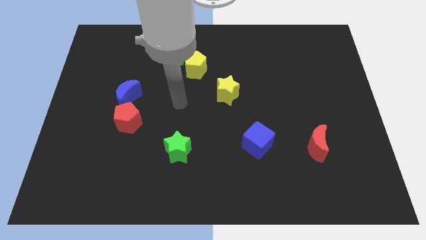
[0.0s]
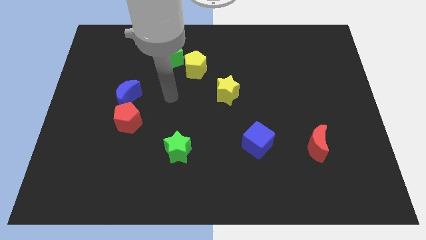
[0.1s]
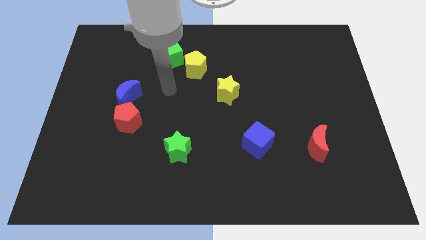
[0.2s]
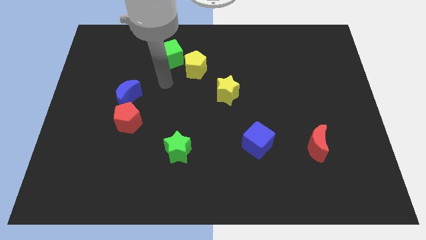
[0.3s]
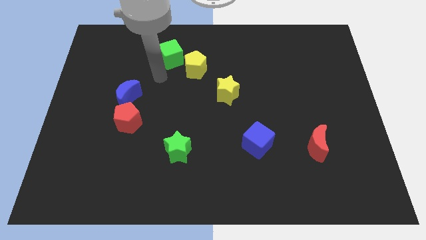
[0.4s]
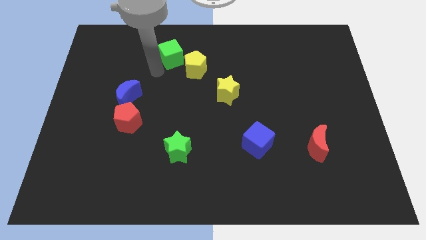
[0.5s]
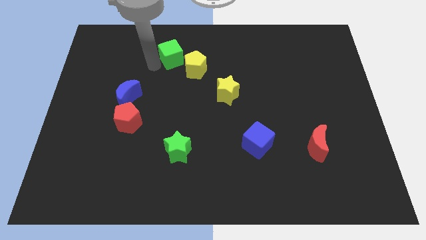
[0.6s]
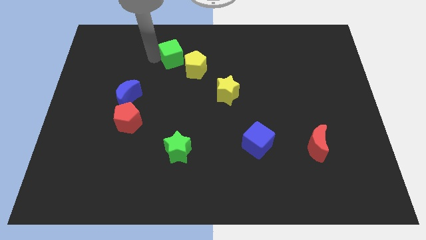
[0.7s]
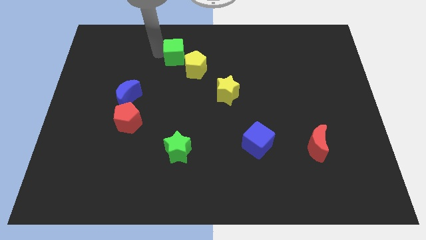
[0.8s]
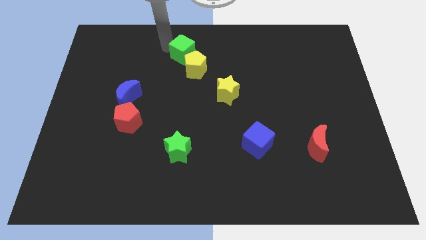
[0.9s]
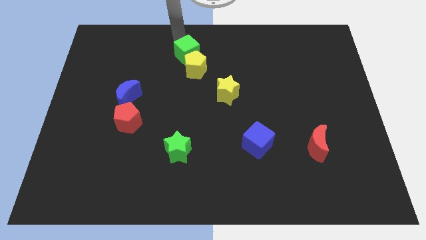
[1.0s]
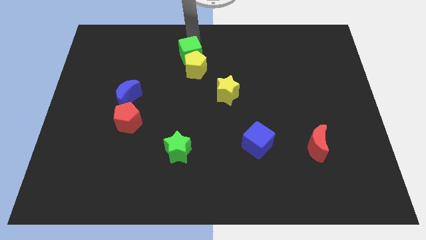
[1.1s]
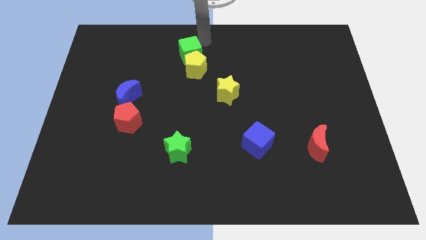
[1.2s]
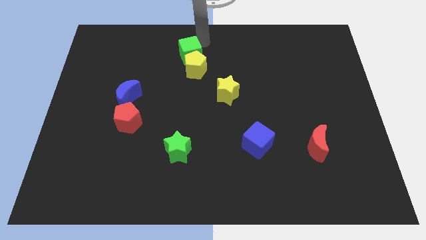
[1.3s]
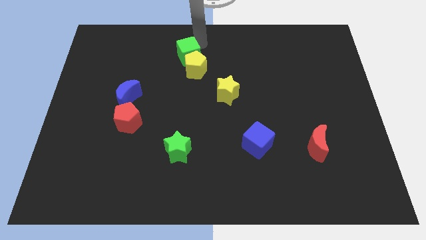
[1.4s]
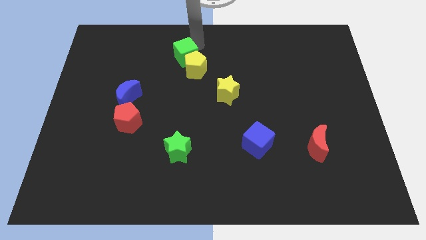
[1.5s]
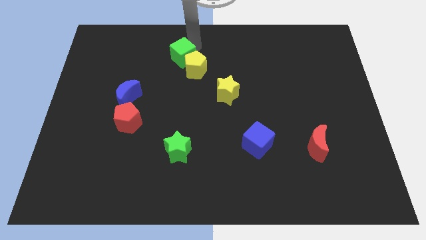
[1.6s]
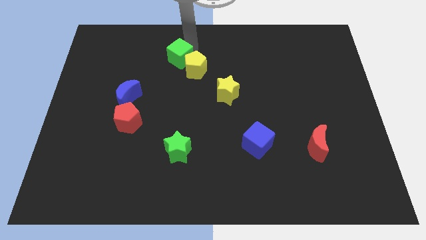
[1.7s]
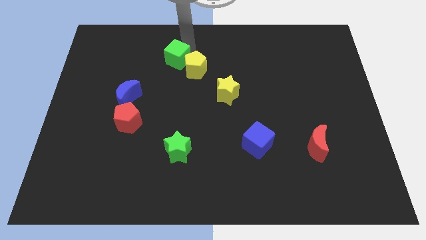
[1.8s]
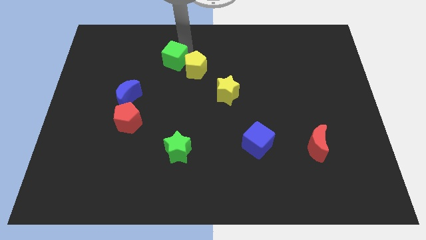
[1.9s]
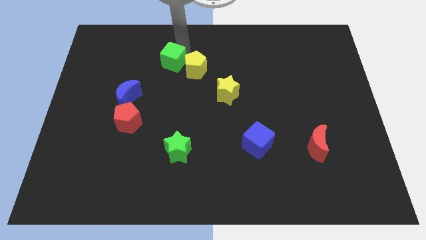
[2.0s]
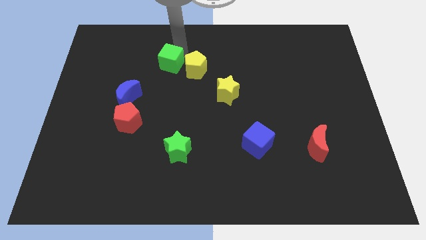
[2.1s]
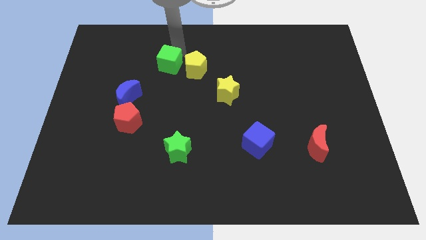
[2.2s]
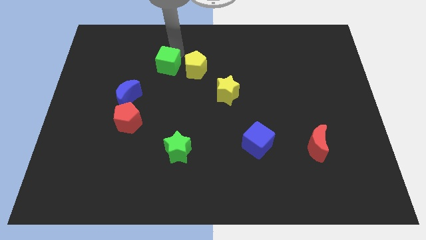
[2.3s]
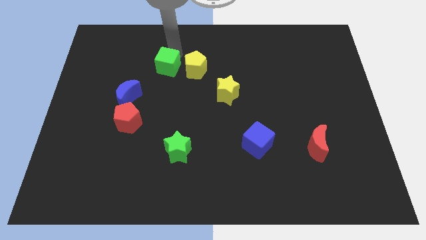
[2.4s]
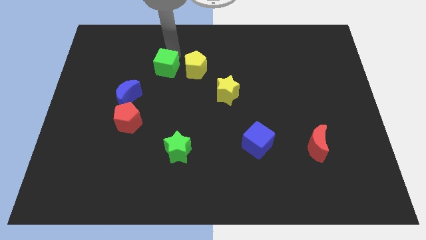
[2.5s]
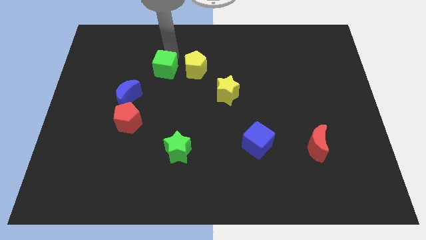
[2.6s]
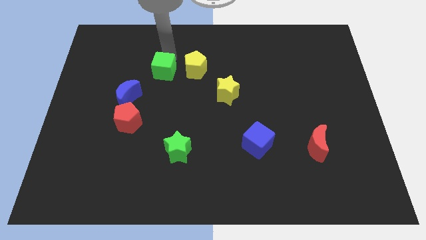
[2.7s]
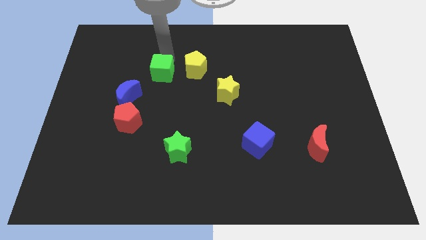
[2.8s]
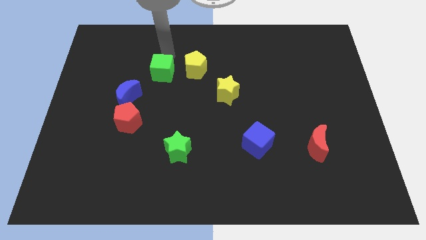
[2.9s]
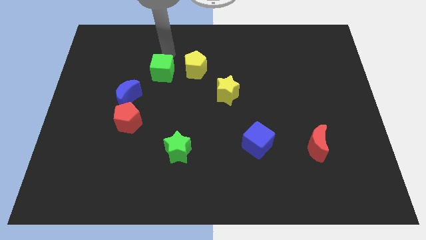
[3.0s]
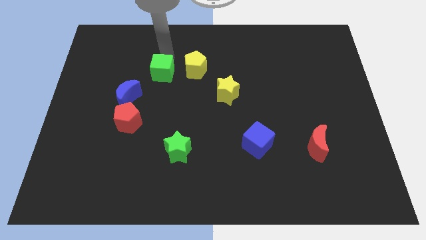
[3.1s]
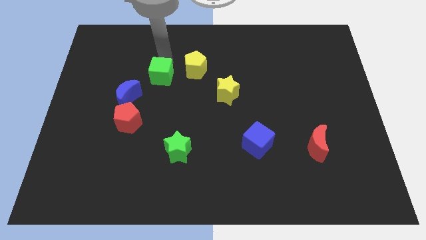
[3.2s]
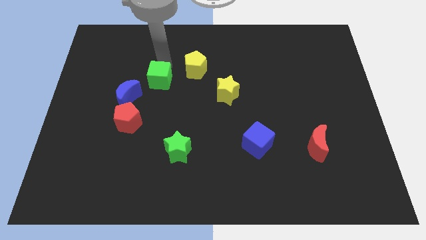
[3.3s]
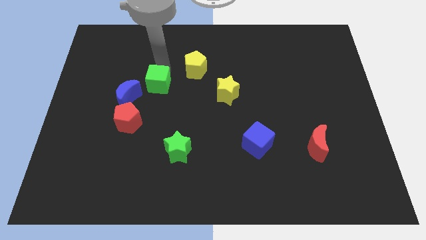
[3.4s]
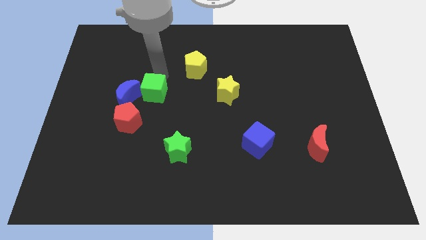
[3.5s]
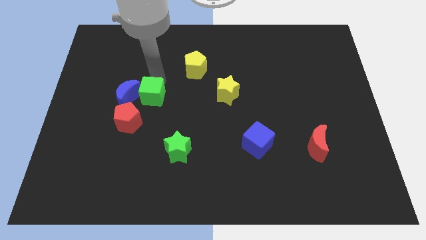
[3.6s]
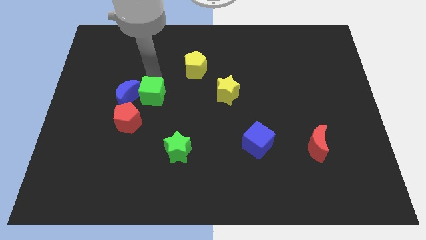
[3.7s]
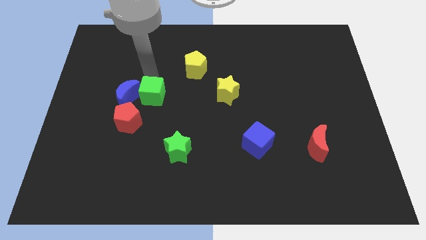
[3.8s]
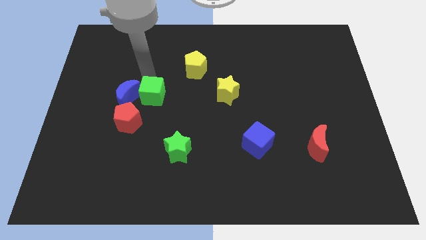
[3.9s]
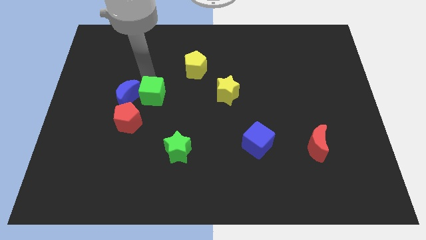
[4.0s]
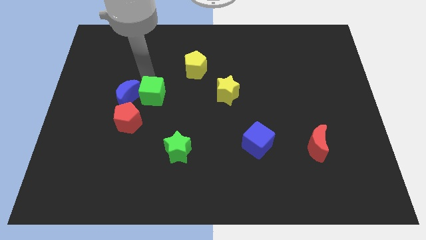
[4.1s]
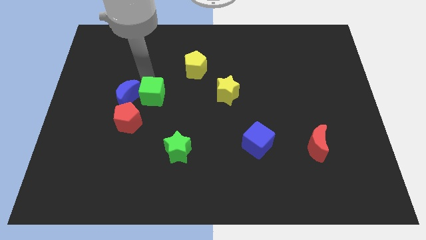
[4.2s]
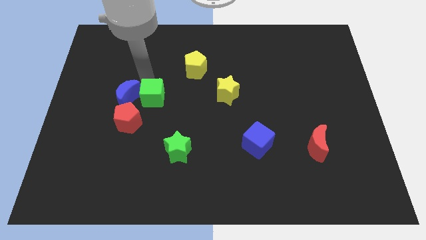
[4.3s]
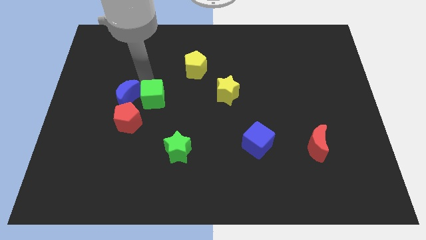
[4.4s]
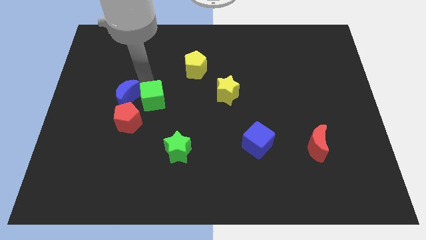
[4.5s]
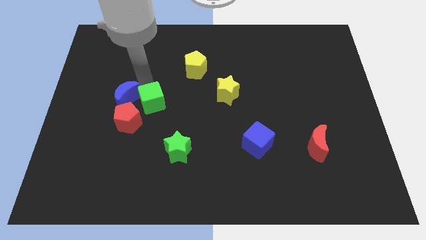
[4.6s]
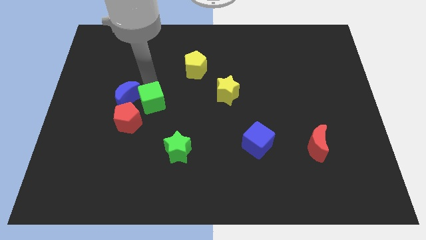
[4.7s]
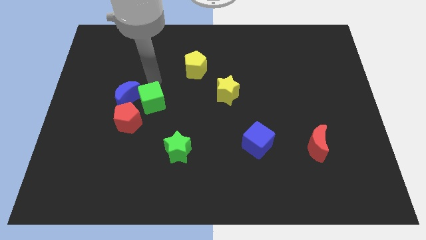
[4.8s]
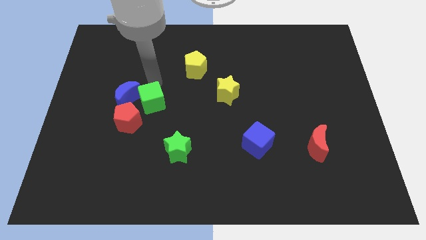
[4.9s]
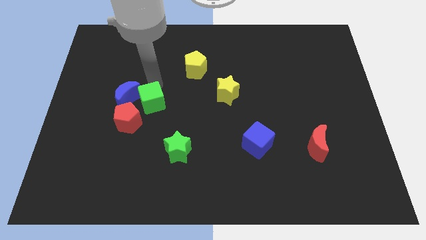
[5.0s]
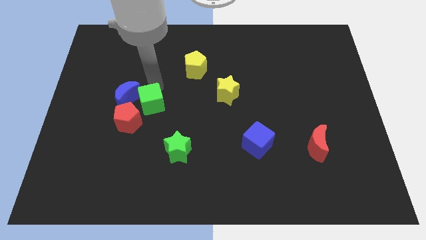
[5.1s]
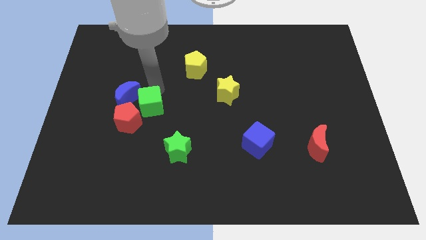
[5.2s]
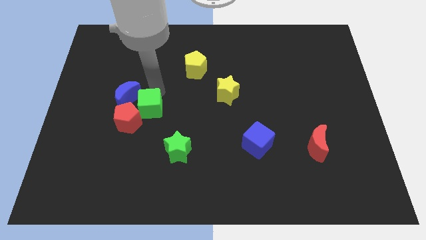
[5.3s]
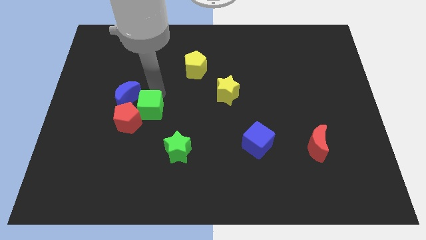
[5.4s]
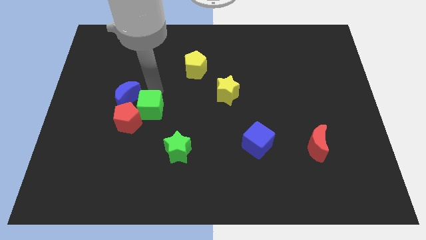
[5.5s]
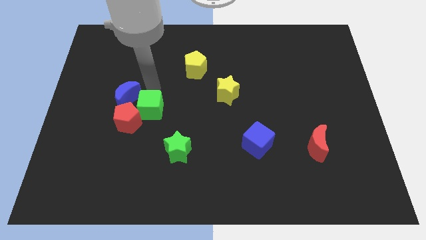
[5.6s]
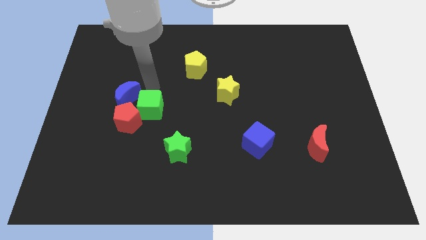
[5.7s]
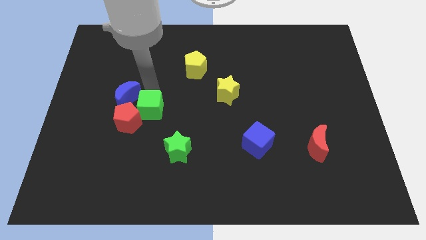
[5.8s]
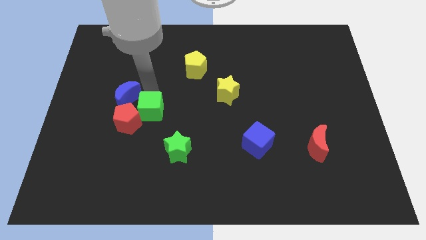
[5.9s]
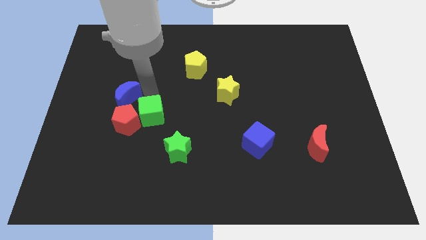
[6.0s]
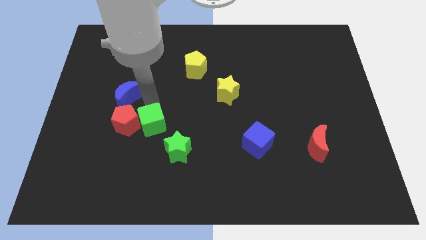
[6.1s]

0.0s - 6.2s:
move the green cube downwards

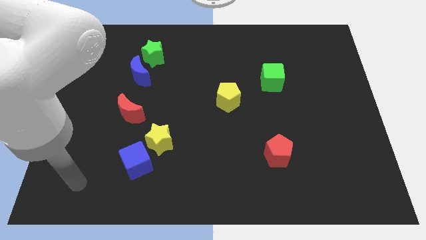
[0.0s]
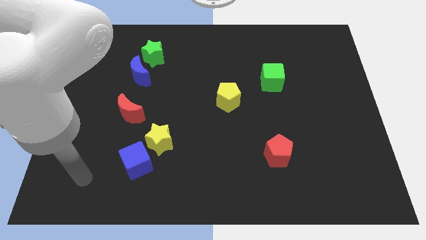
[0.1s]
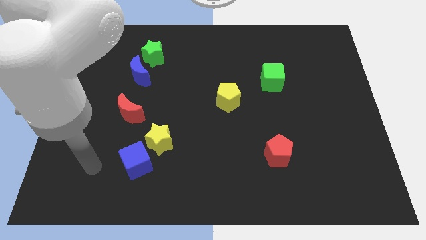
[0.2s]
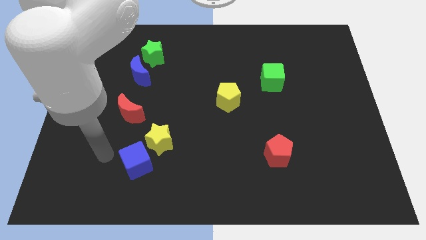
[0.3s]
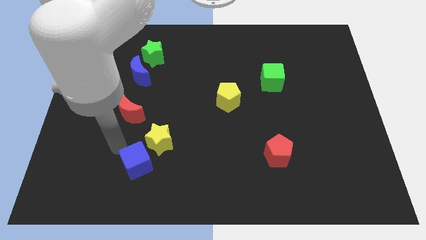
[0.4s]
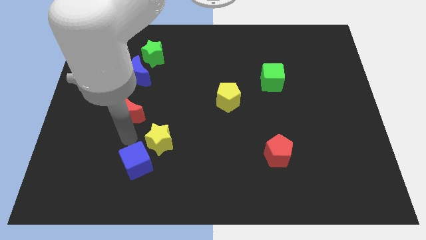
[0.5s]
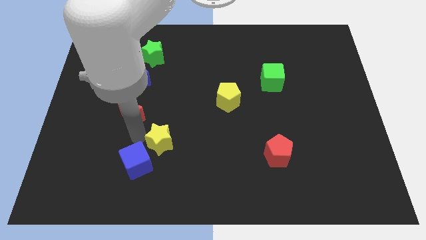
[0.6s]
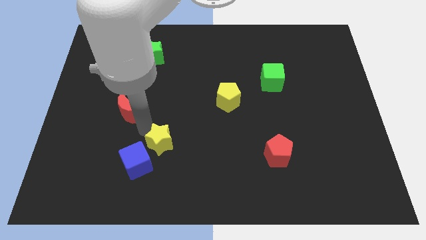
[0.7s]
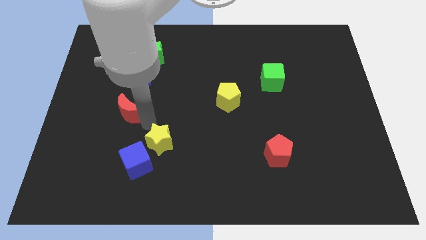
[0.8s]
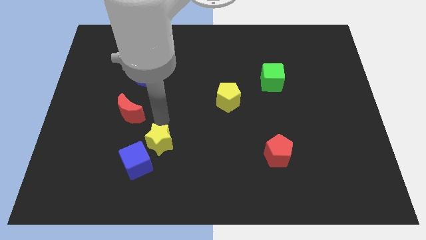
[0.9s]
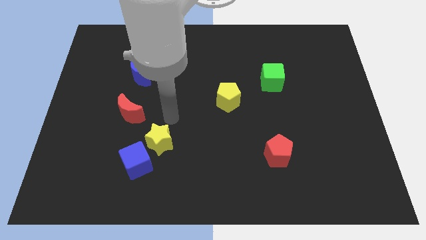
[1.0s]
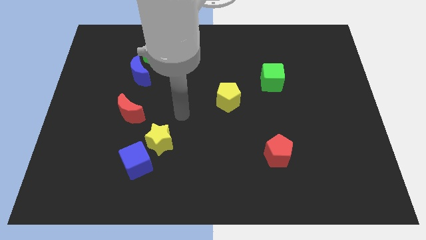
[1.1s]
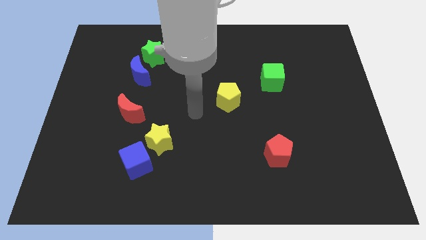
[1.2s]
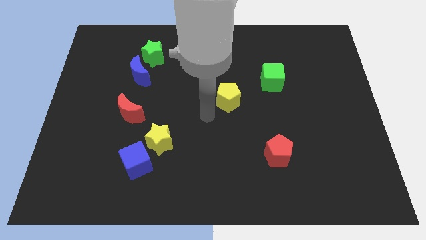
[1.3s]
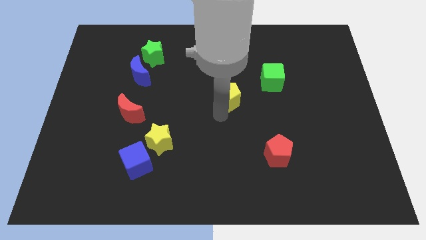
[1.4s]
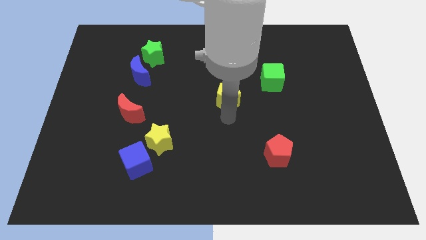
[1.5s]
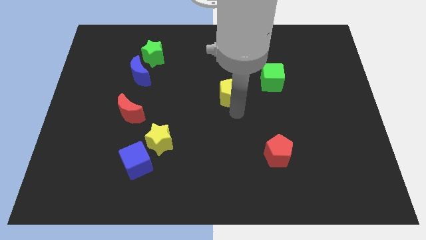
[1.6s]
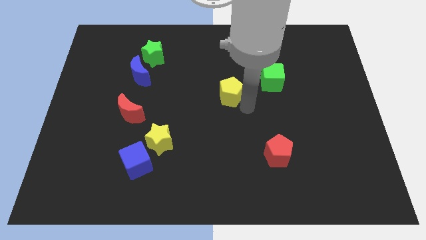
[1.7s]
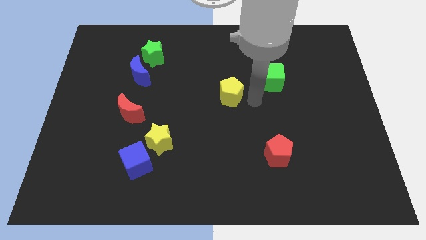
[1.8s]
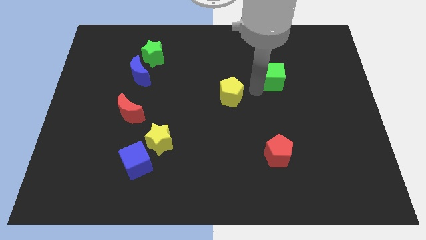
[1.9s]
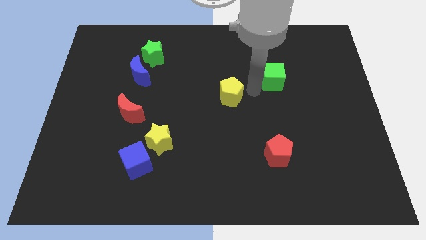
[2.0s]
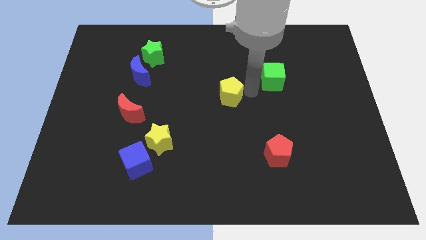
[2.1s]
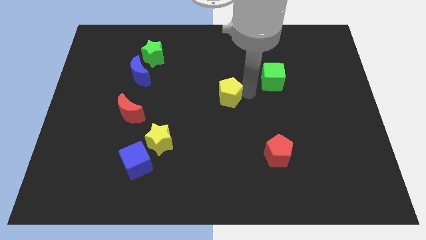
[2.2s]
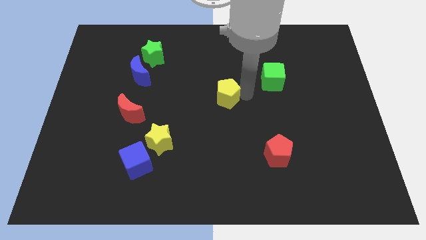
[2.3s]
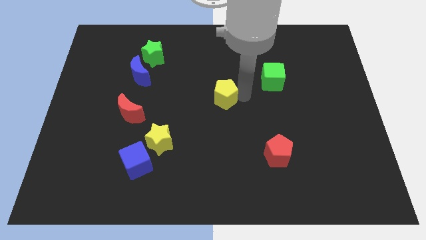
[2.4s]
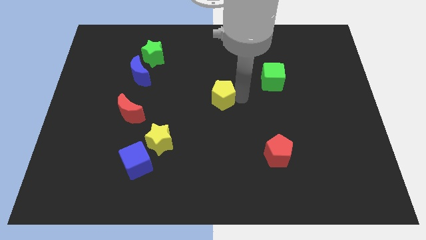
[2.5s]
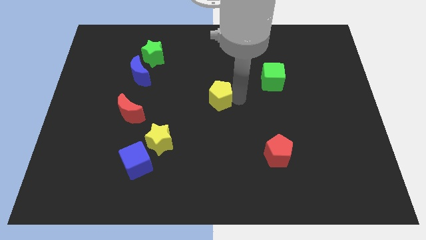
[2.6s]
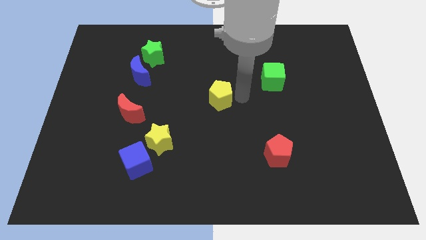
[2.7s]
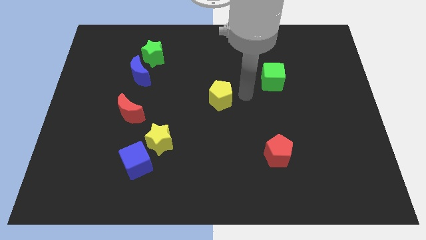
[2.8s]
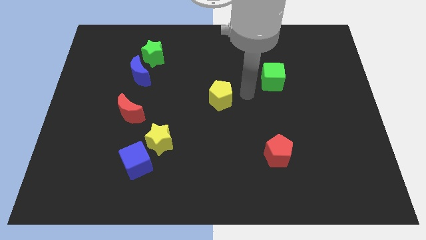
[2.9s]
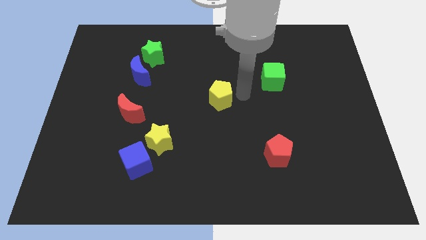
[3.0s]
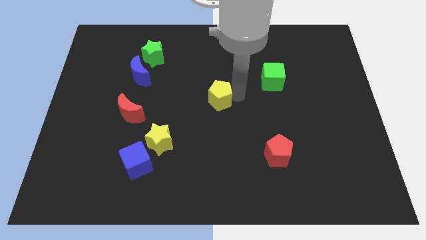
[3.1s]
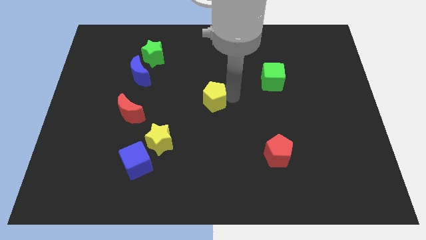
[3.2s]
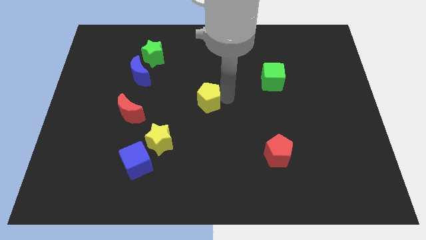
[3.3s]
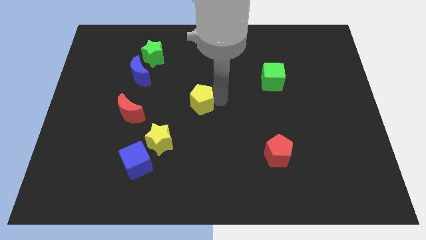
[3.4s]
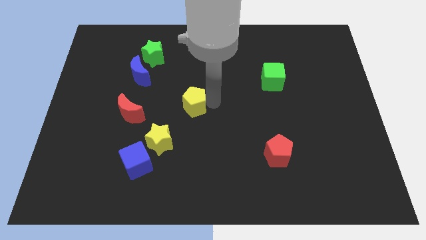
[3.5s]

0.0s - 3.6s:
slide the yellow pentagon a little to the left
